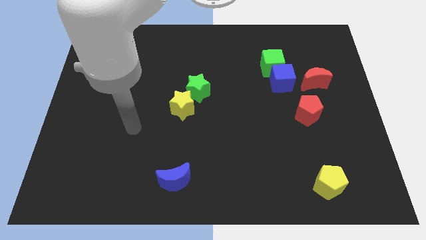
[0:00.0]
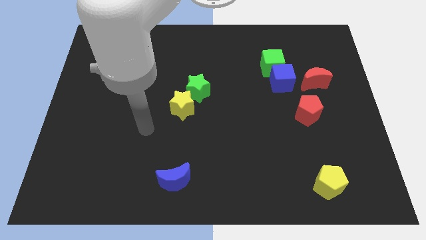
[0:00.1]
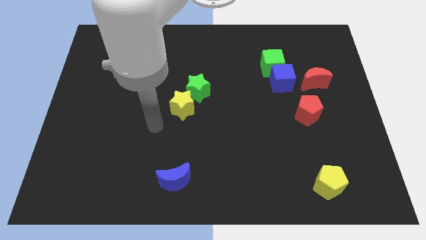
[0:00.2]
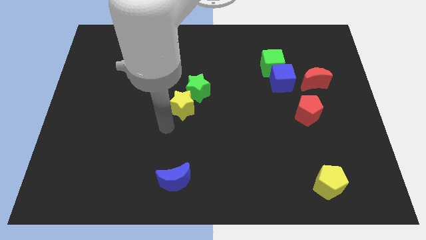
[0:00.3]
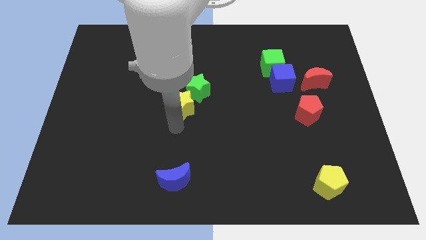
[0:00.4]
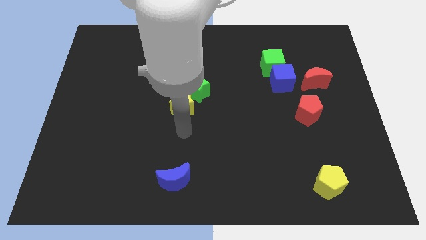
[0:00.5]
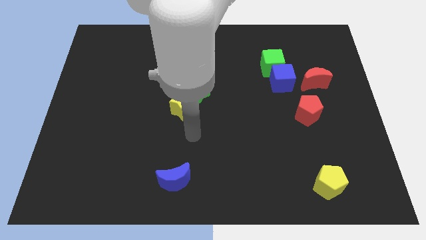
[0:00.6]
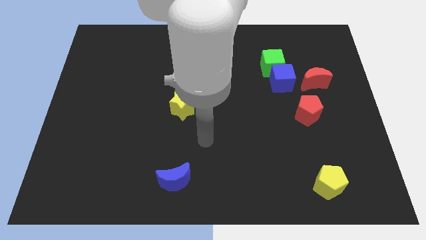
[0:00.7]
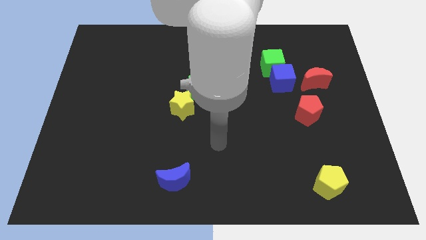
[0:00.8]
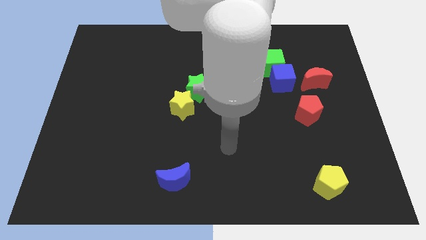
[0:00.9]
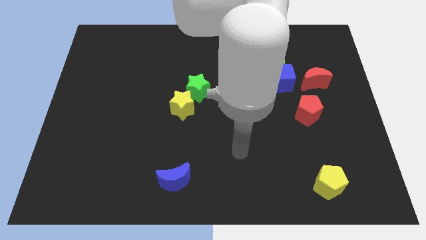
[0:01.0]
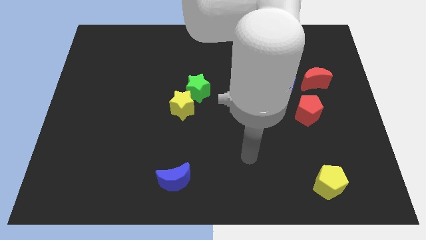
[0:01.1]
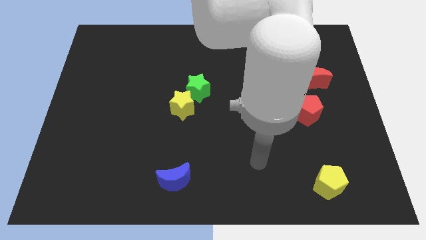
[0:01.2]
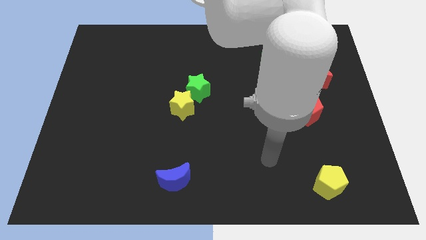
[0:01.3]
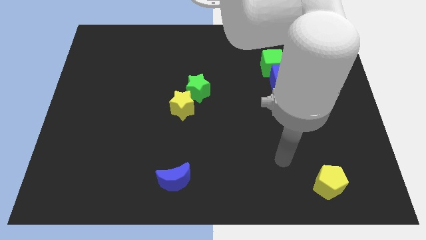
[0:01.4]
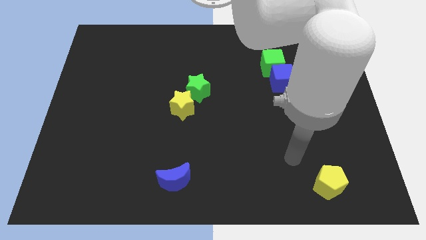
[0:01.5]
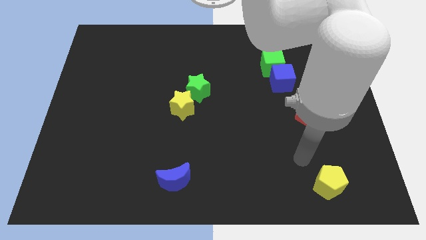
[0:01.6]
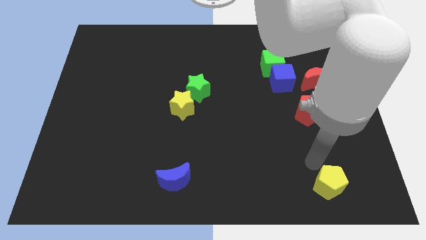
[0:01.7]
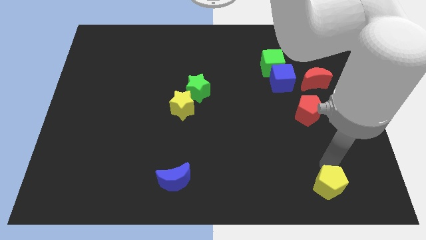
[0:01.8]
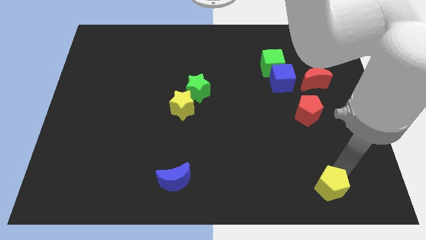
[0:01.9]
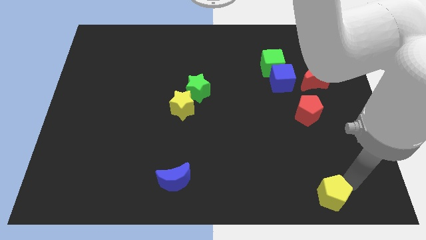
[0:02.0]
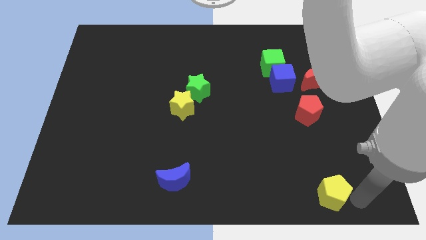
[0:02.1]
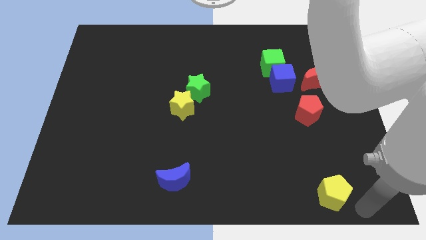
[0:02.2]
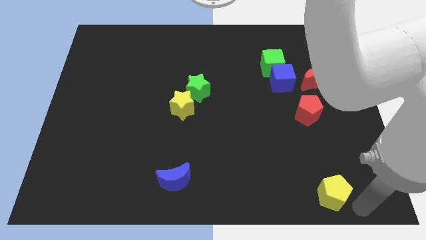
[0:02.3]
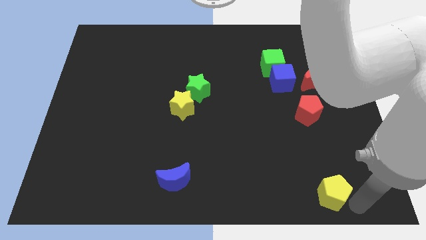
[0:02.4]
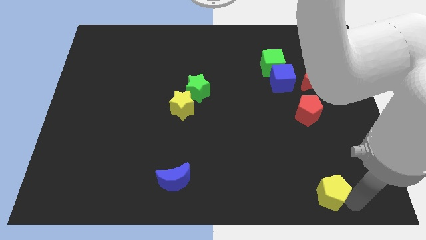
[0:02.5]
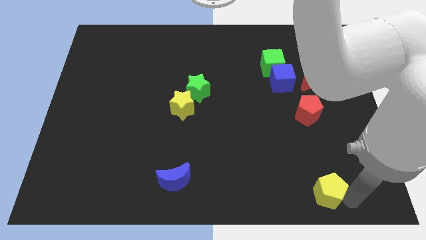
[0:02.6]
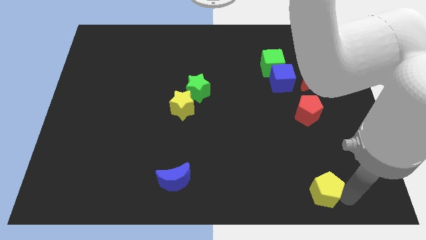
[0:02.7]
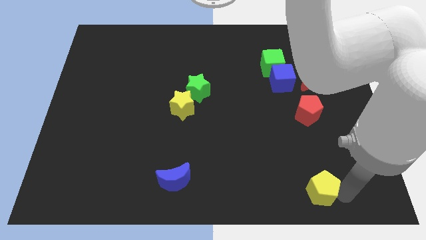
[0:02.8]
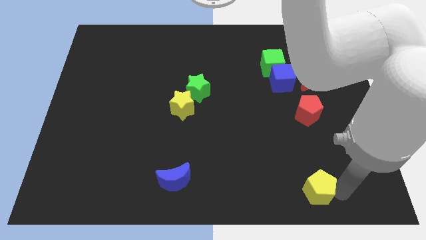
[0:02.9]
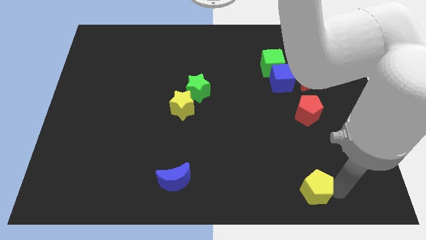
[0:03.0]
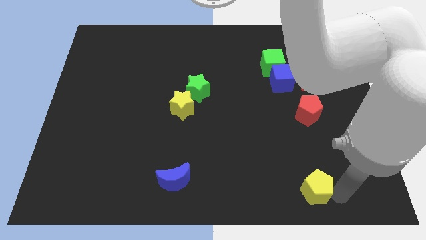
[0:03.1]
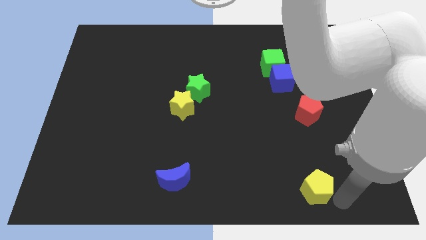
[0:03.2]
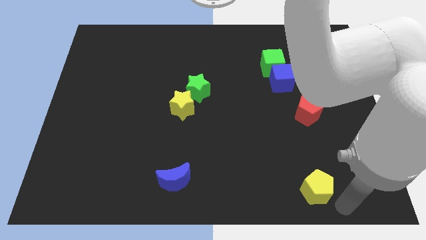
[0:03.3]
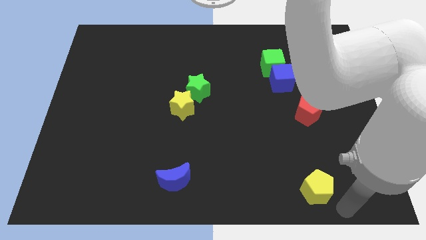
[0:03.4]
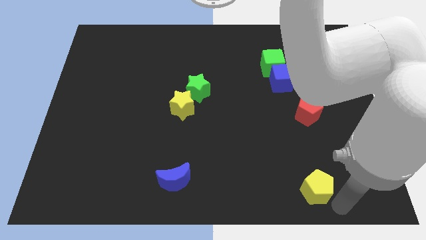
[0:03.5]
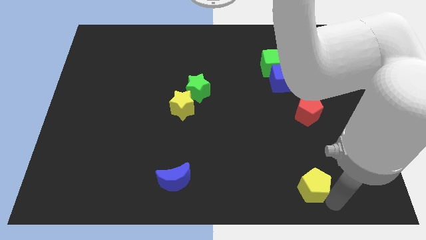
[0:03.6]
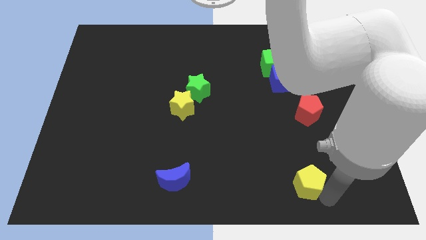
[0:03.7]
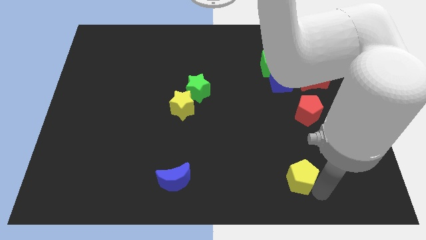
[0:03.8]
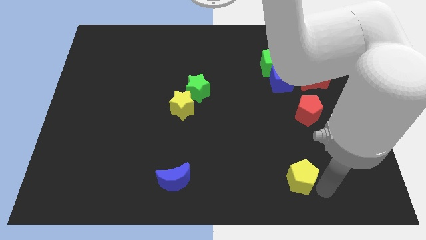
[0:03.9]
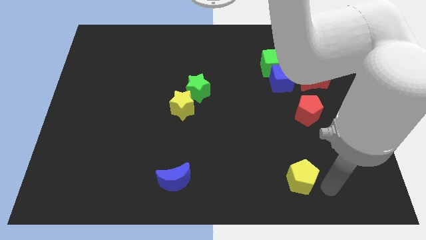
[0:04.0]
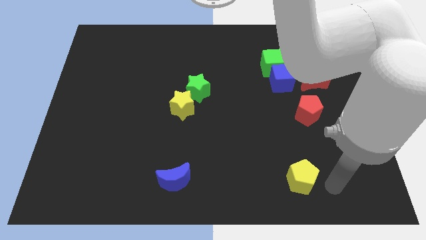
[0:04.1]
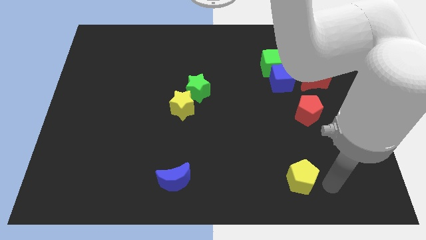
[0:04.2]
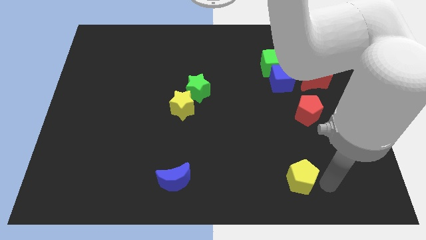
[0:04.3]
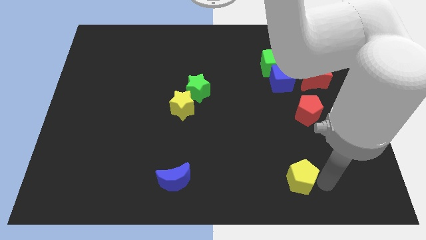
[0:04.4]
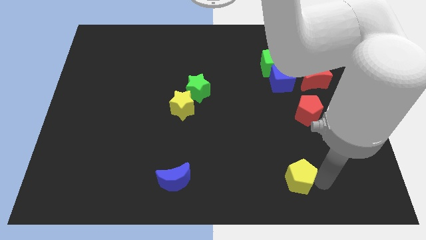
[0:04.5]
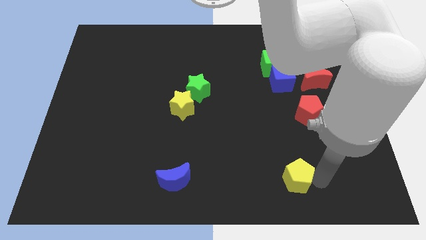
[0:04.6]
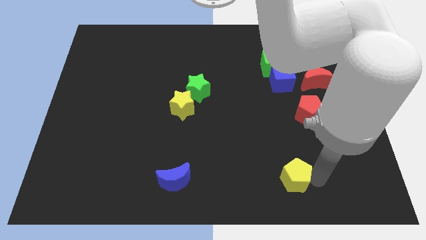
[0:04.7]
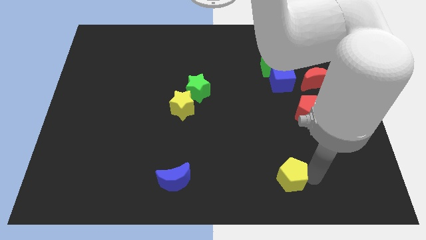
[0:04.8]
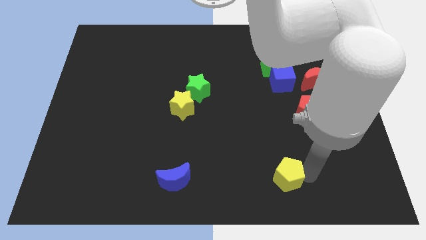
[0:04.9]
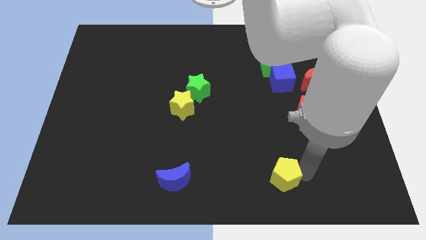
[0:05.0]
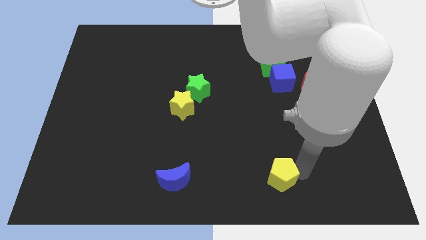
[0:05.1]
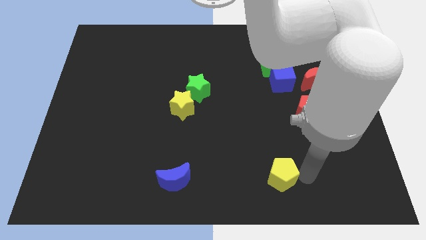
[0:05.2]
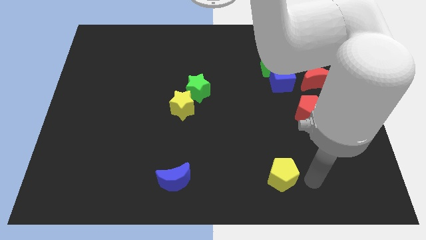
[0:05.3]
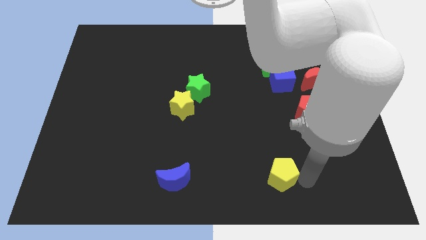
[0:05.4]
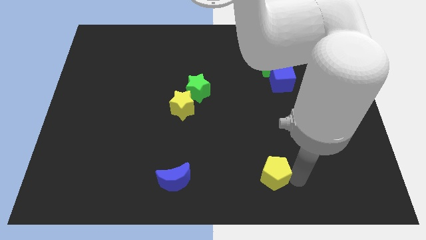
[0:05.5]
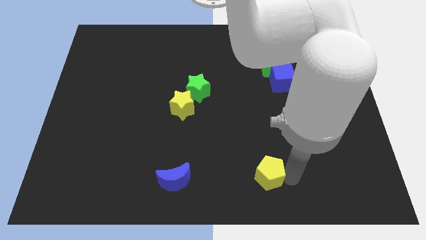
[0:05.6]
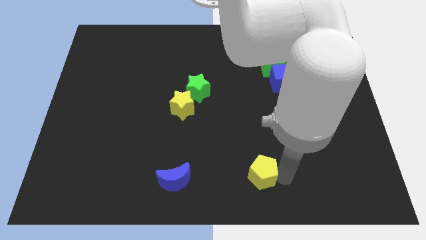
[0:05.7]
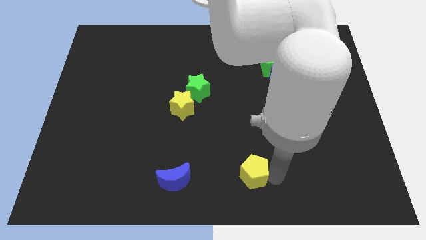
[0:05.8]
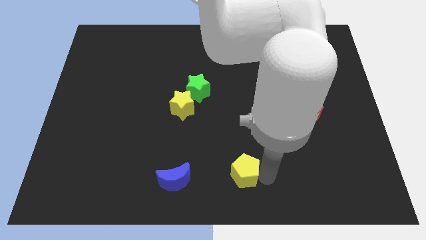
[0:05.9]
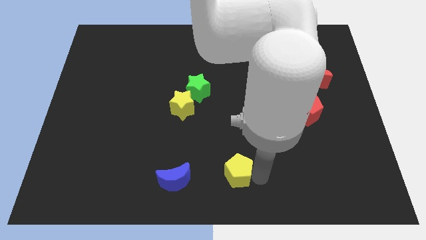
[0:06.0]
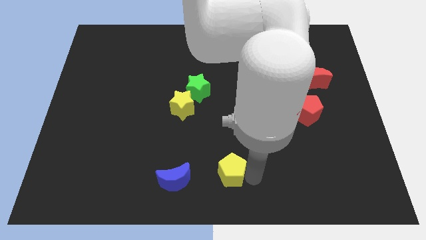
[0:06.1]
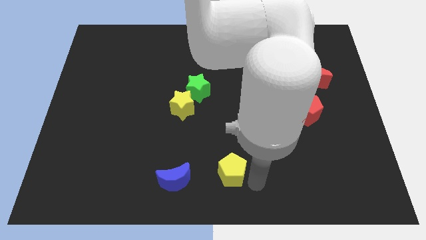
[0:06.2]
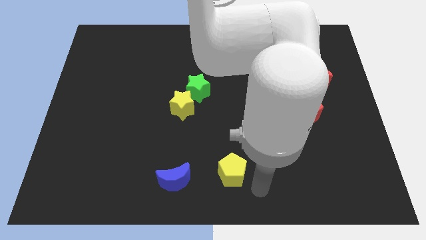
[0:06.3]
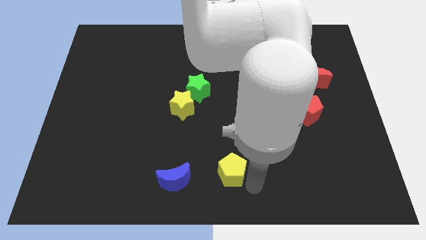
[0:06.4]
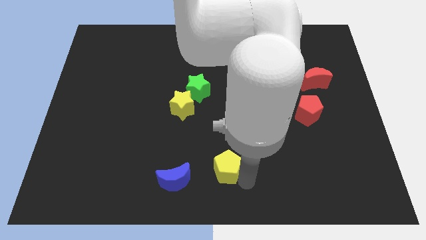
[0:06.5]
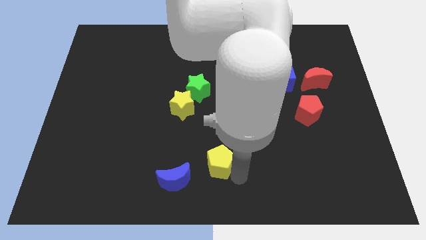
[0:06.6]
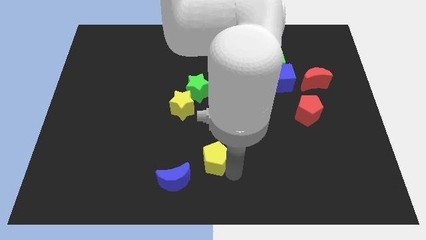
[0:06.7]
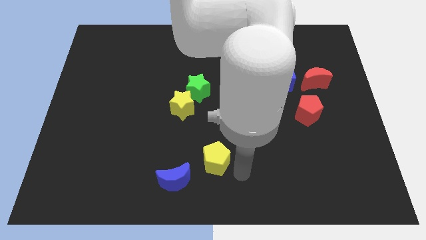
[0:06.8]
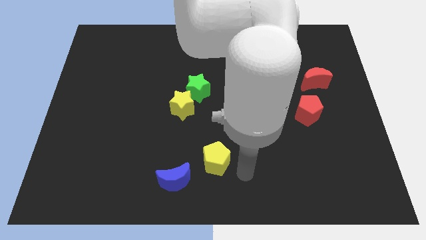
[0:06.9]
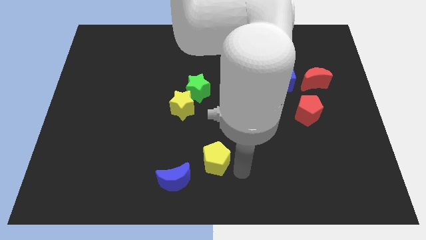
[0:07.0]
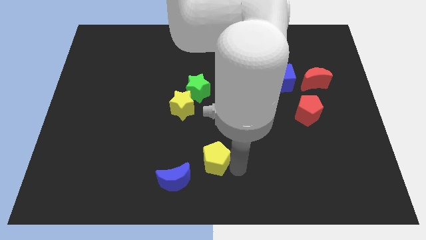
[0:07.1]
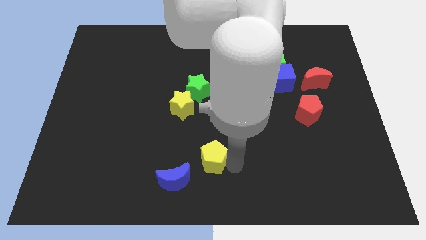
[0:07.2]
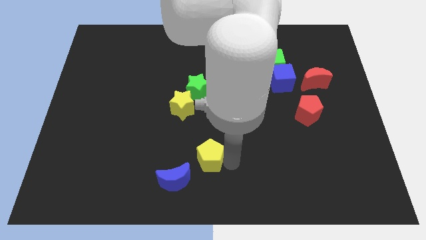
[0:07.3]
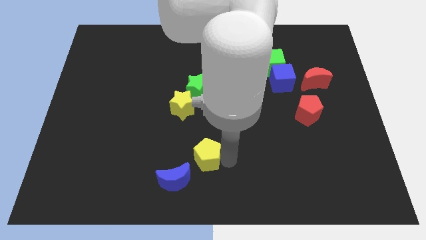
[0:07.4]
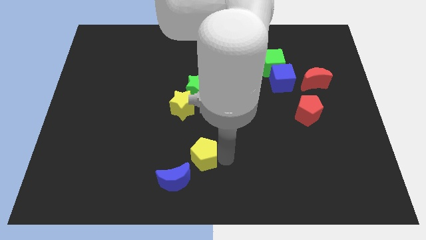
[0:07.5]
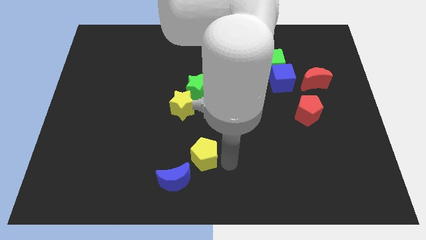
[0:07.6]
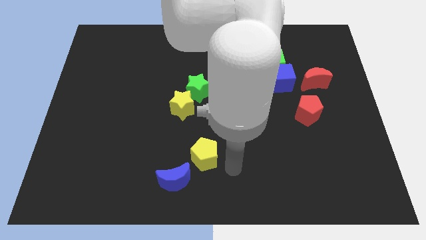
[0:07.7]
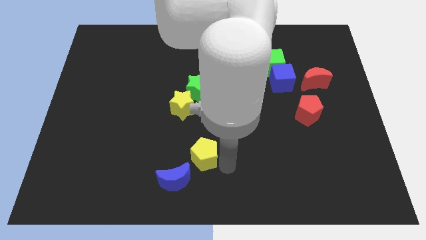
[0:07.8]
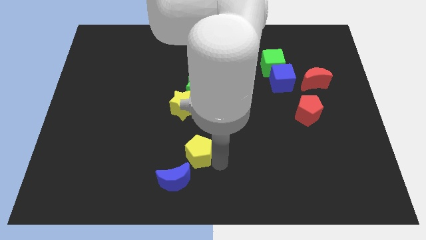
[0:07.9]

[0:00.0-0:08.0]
put the yellow pentagon to the bottom of the yellow star
